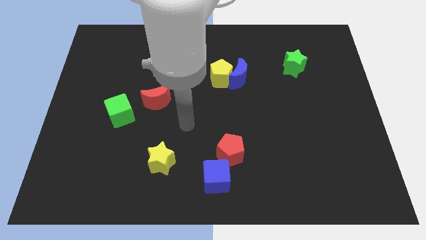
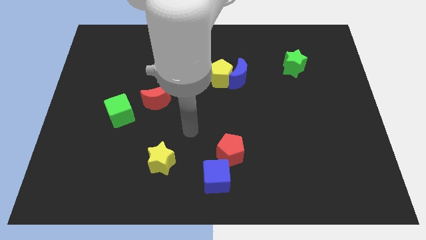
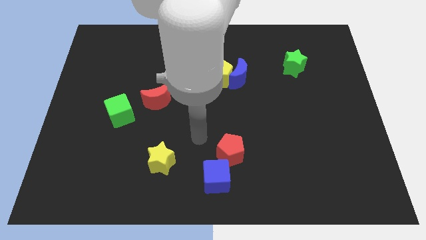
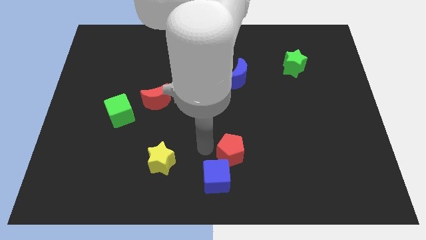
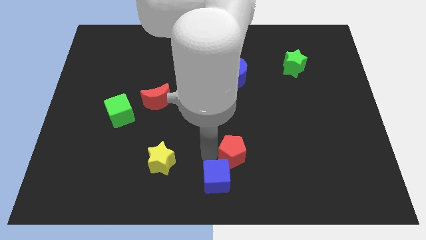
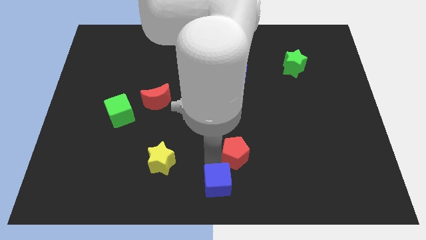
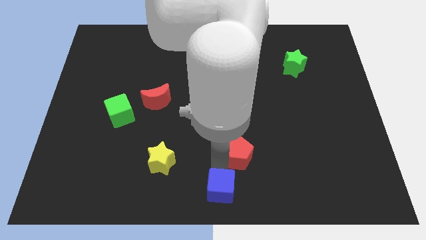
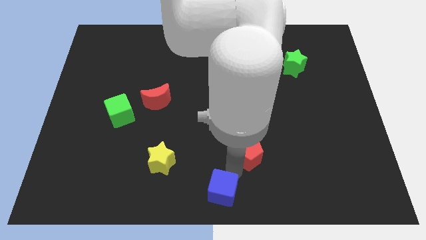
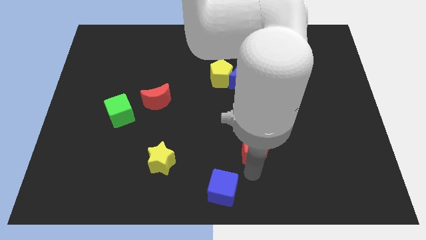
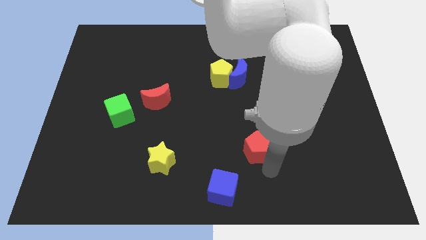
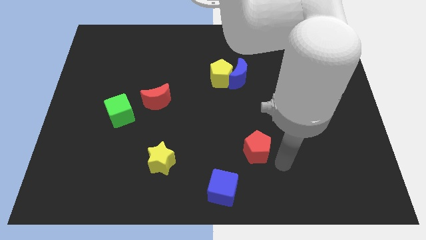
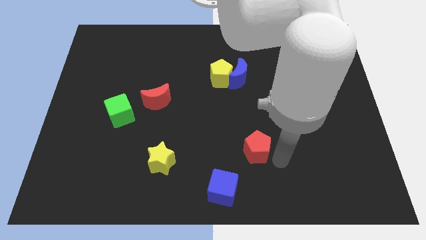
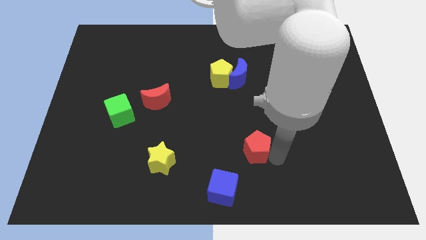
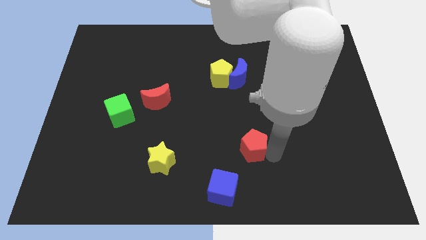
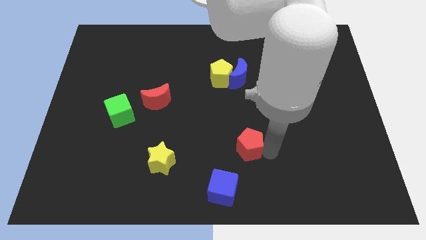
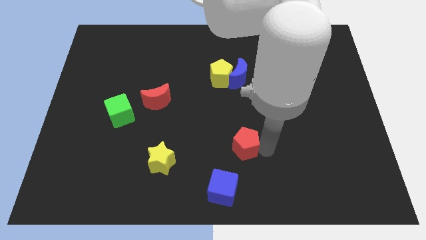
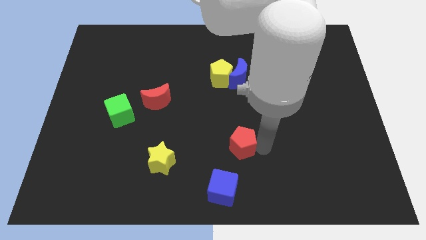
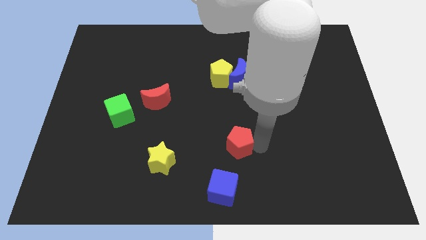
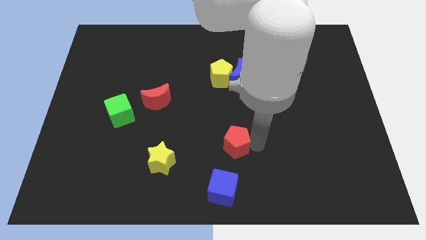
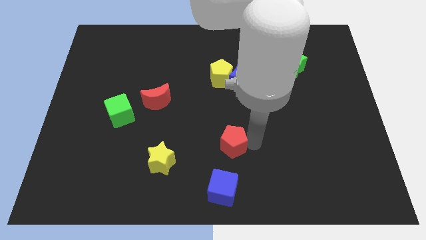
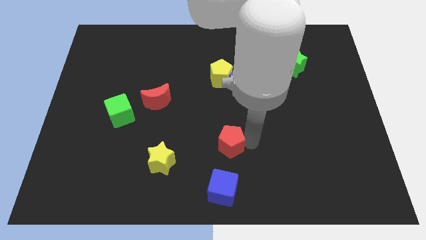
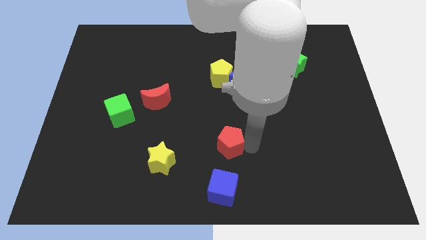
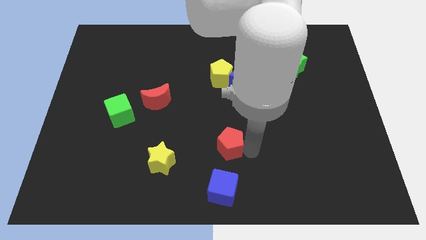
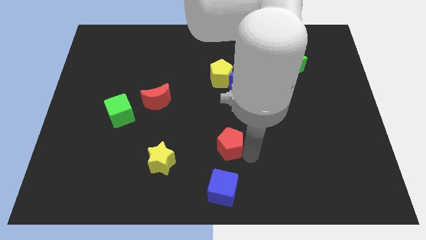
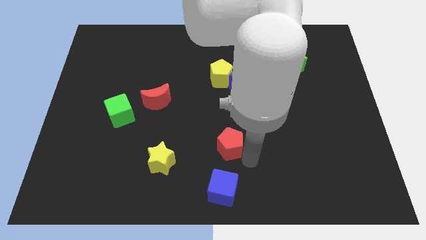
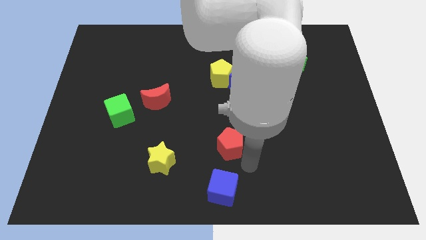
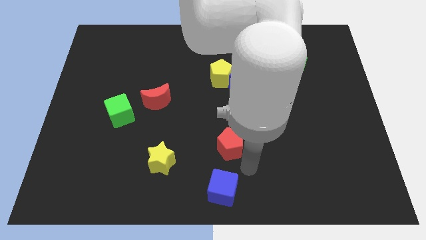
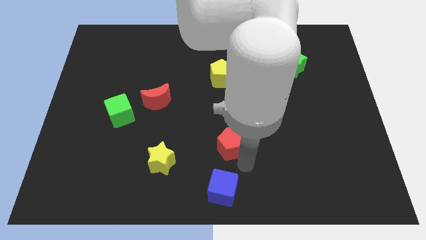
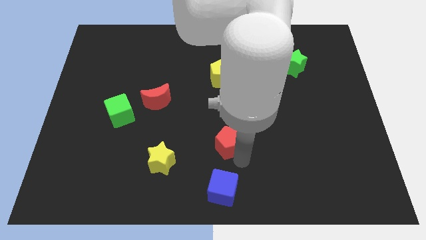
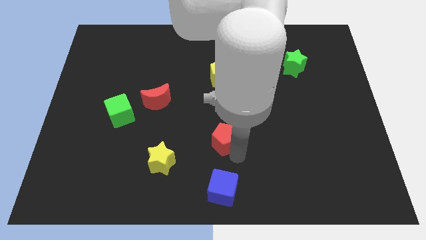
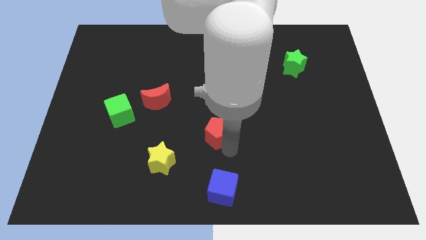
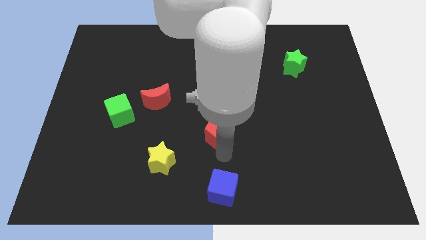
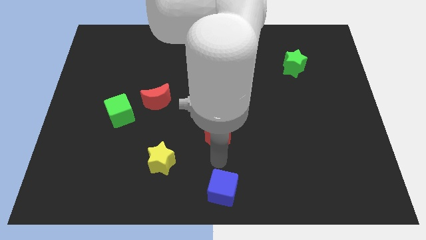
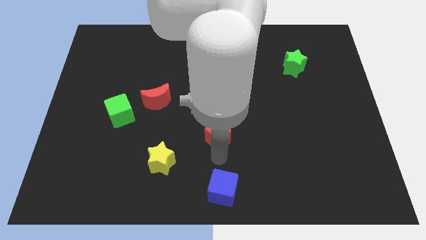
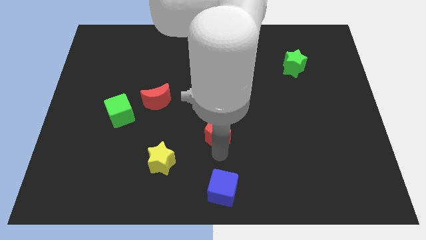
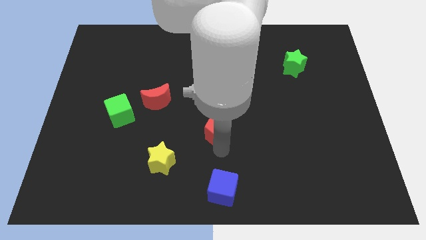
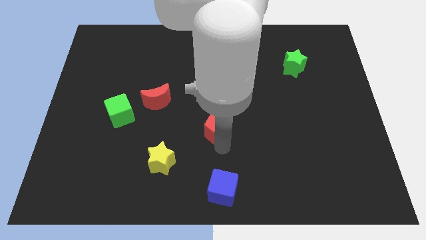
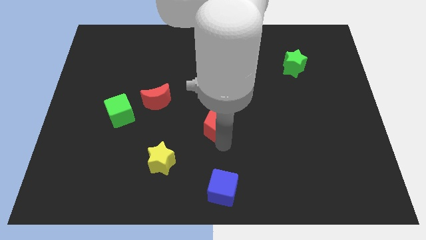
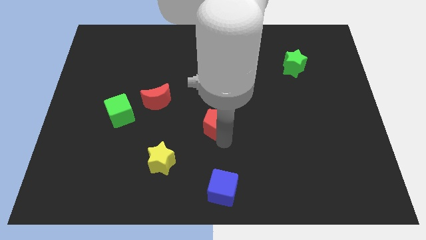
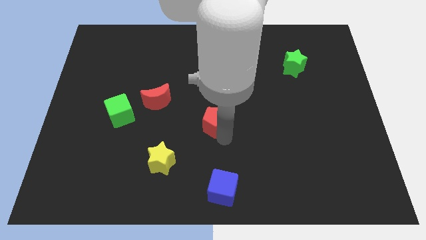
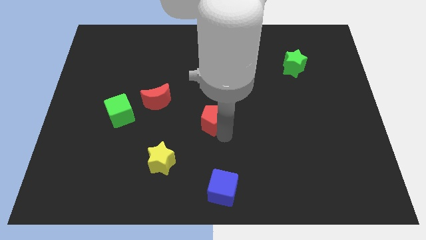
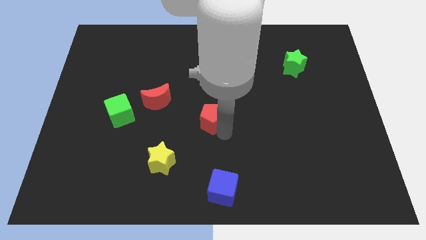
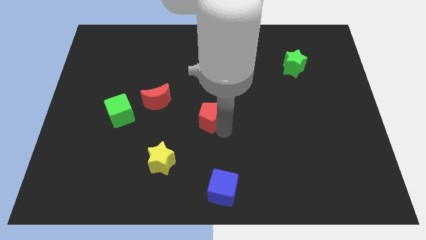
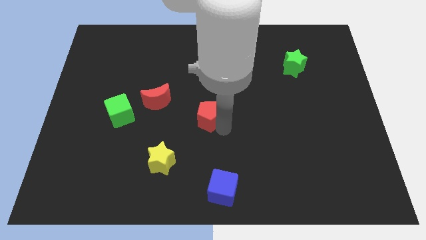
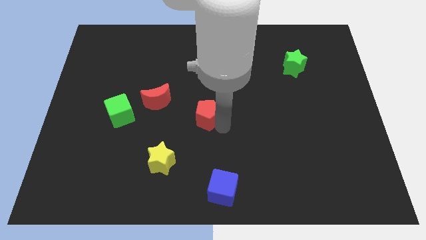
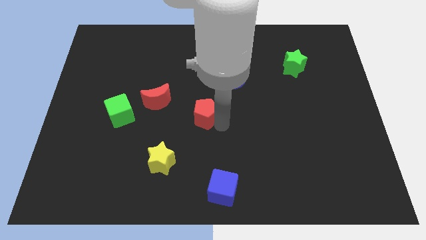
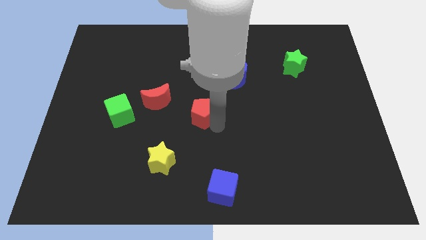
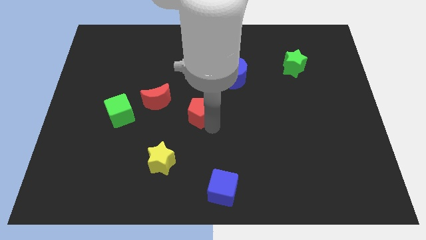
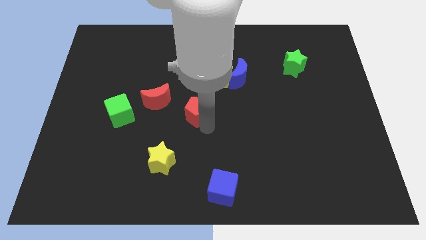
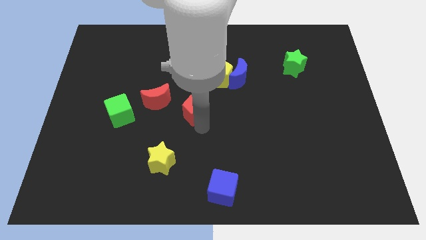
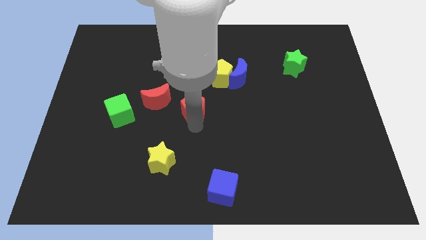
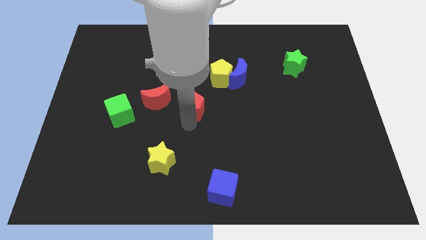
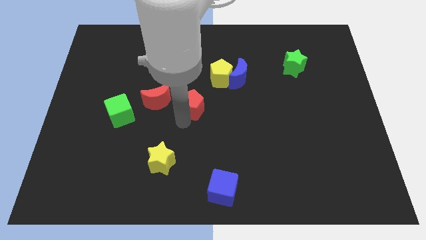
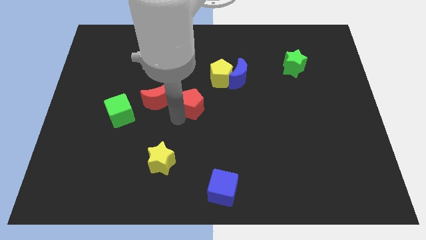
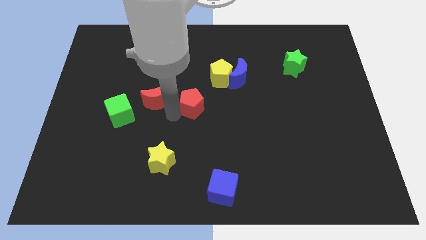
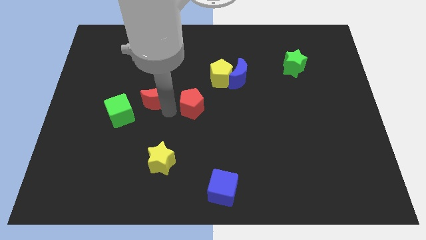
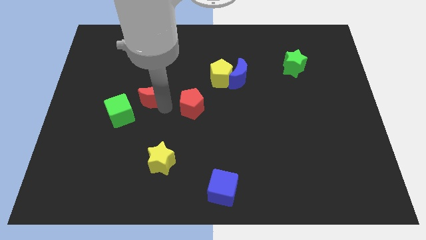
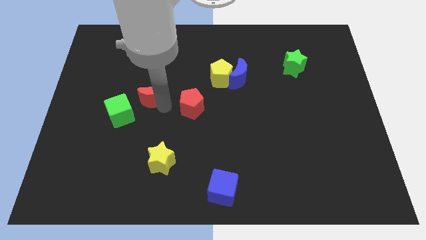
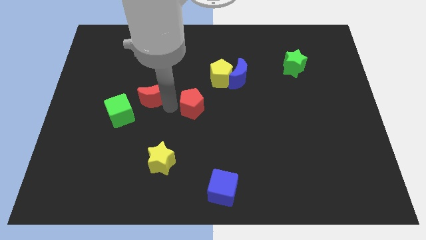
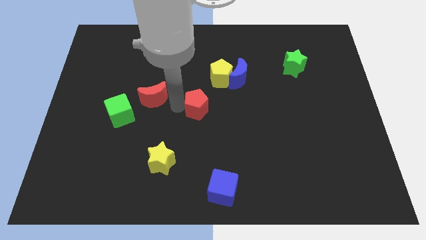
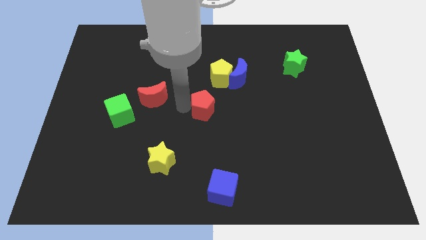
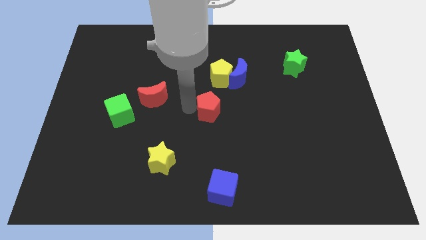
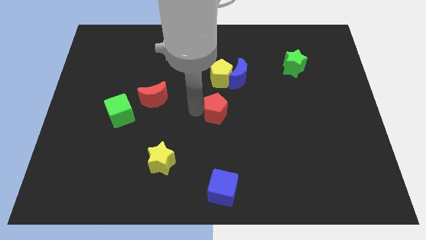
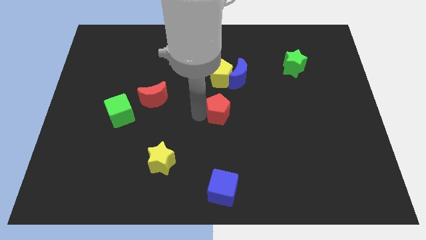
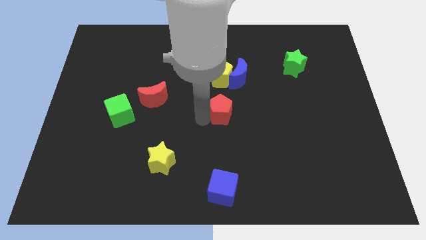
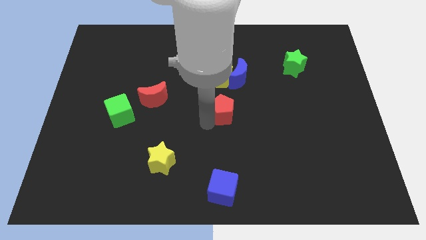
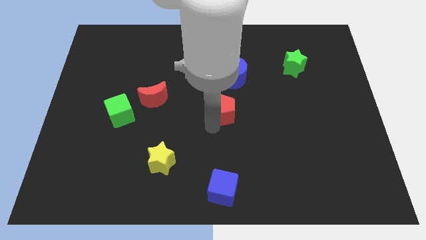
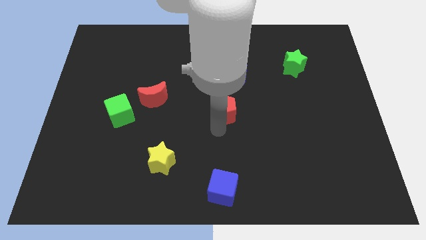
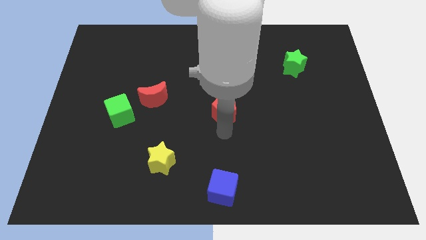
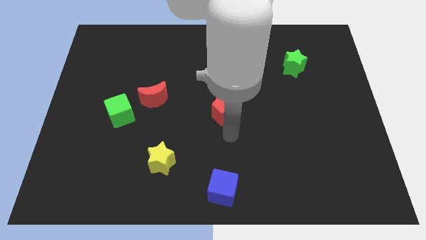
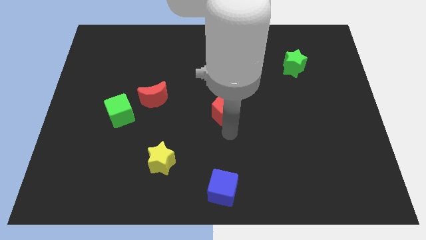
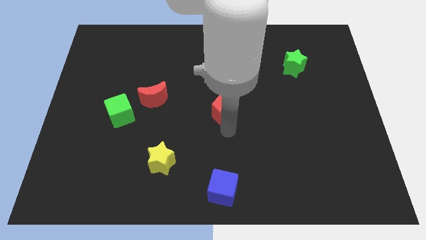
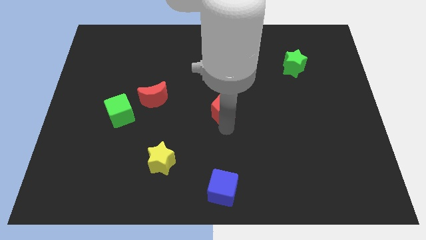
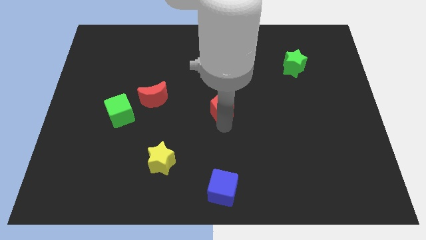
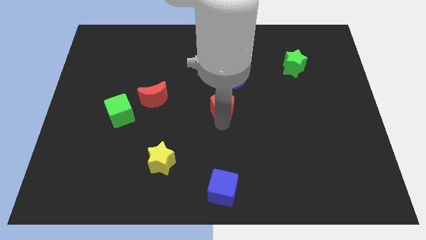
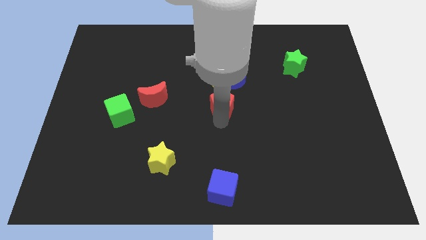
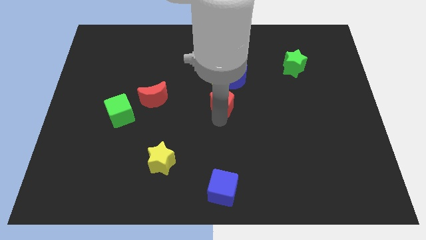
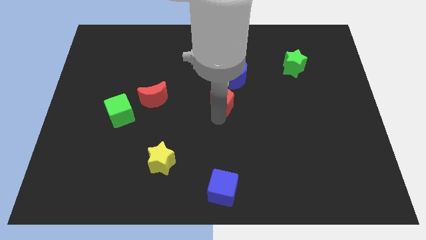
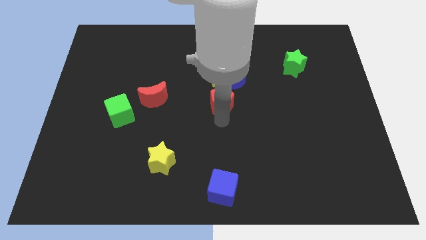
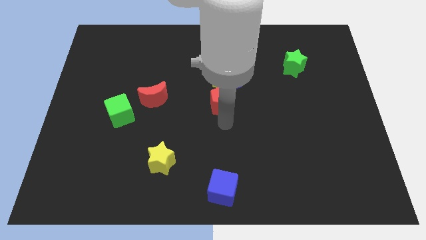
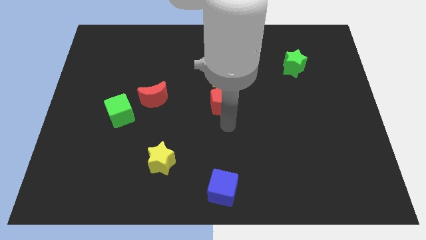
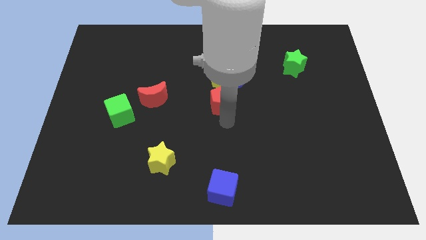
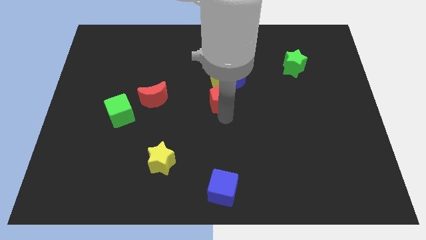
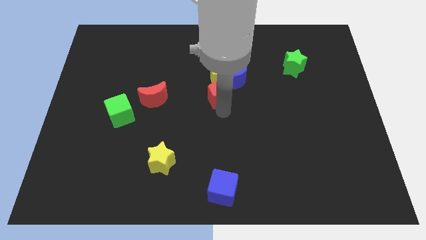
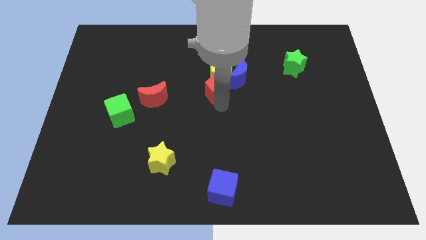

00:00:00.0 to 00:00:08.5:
slide the red pentagon to the yellow pentagon
